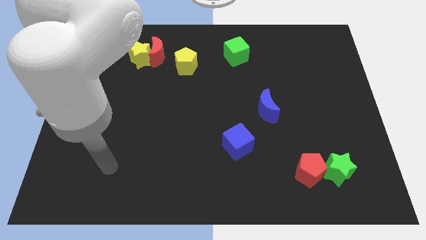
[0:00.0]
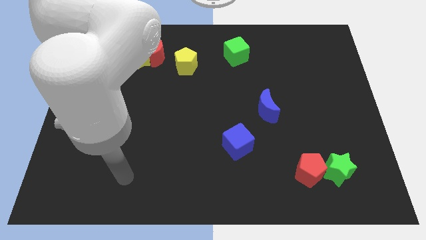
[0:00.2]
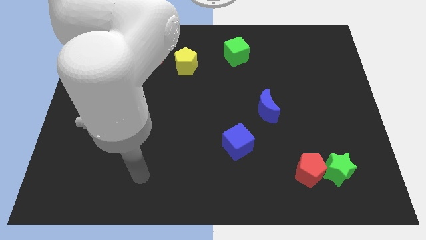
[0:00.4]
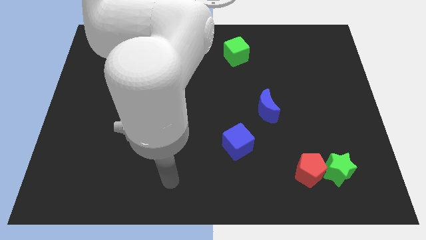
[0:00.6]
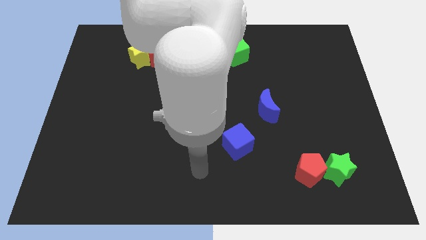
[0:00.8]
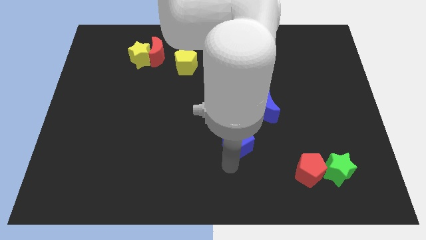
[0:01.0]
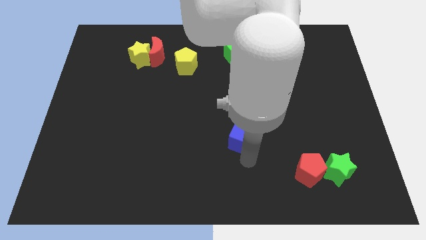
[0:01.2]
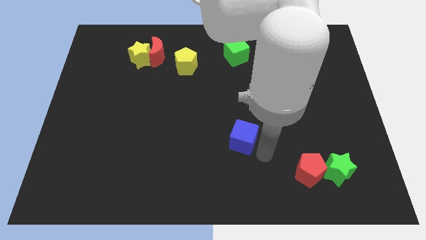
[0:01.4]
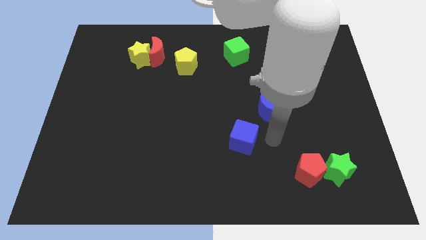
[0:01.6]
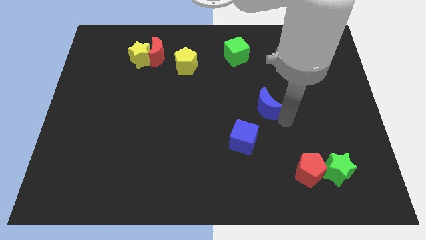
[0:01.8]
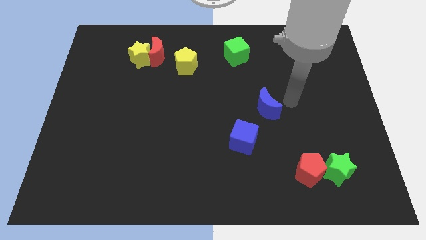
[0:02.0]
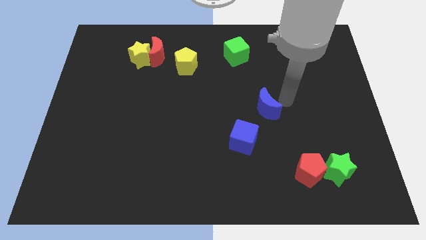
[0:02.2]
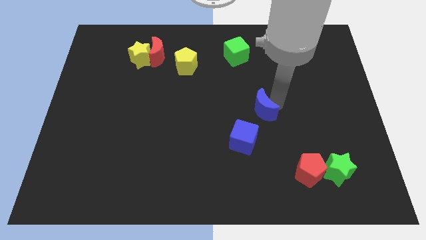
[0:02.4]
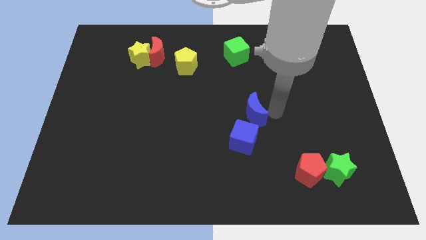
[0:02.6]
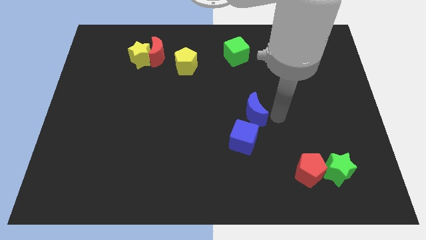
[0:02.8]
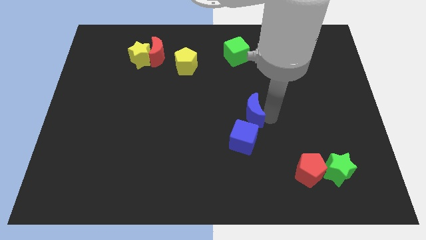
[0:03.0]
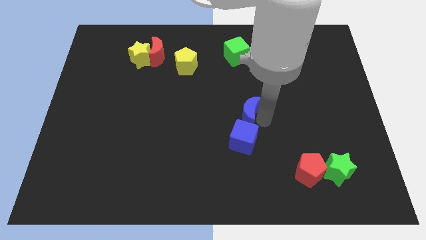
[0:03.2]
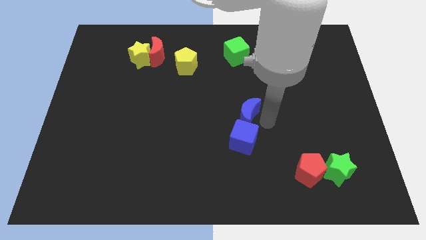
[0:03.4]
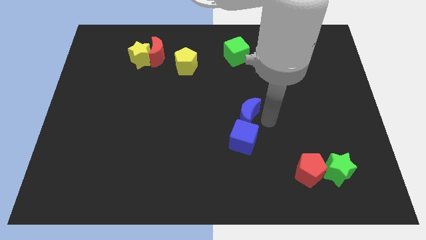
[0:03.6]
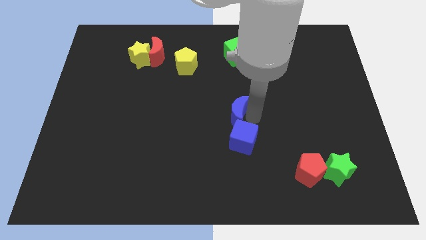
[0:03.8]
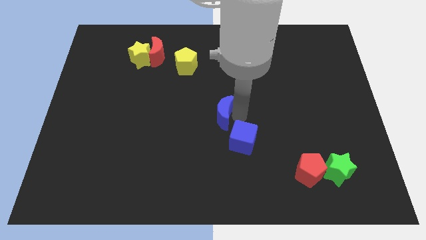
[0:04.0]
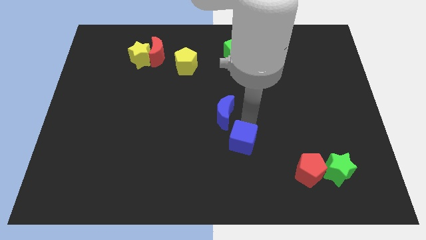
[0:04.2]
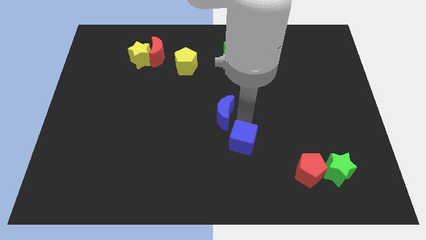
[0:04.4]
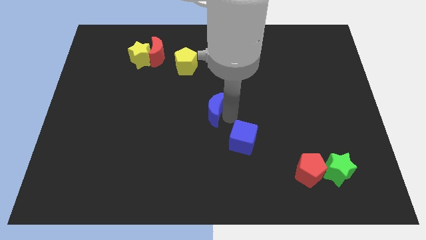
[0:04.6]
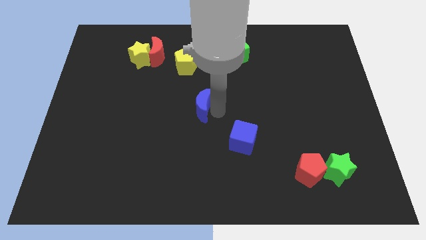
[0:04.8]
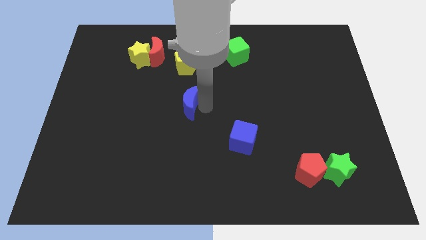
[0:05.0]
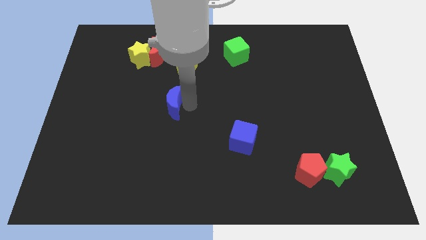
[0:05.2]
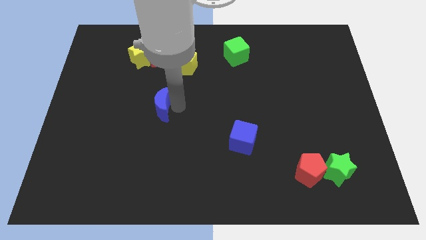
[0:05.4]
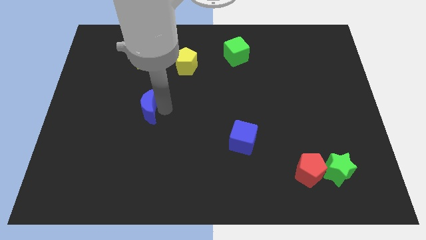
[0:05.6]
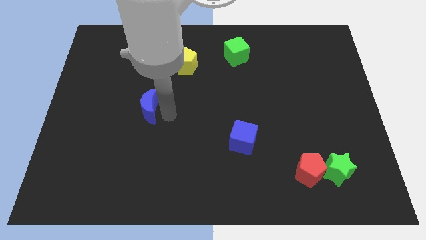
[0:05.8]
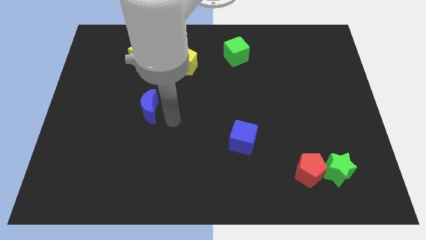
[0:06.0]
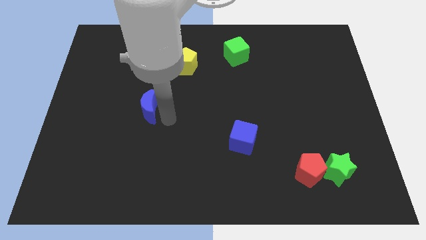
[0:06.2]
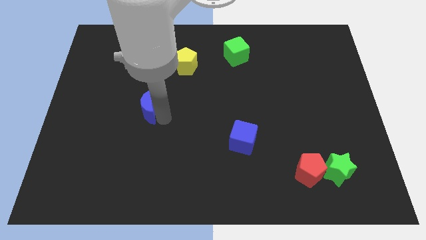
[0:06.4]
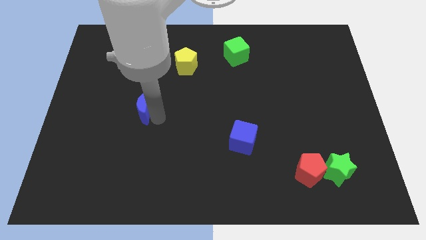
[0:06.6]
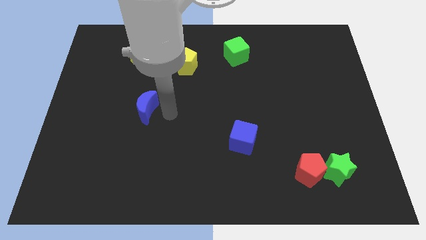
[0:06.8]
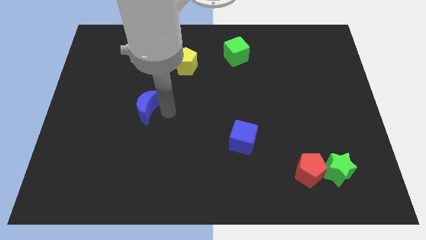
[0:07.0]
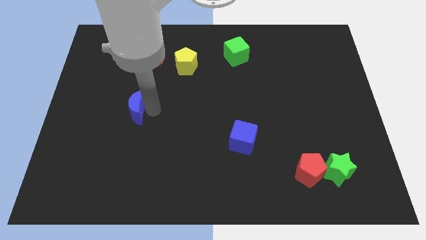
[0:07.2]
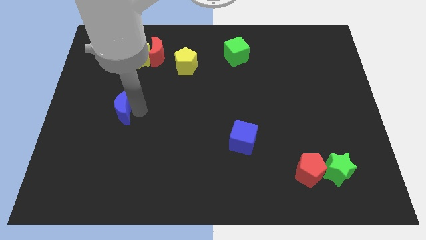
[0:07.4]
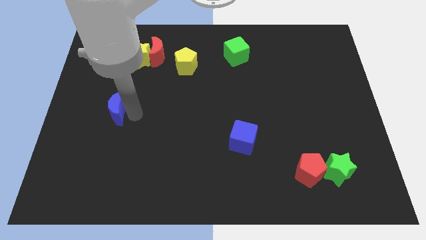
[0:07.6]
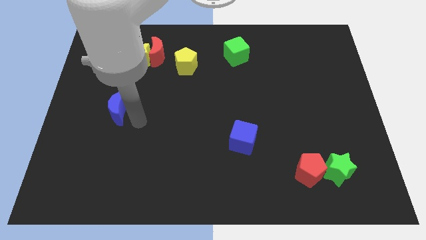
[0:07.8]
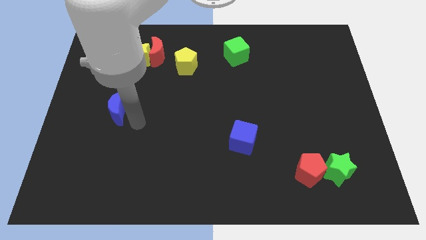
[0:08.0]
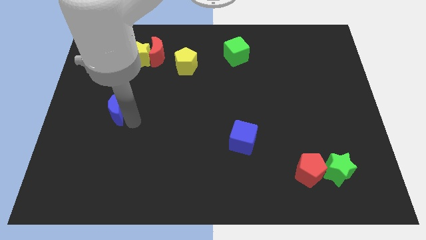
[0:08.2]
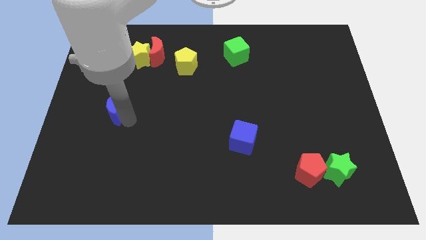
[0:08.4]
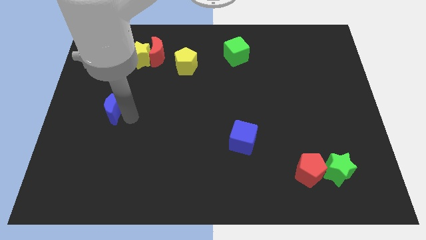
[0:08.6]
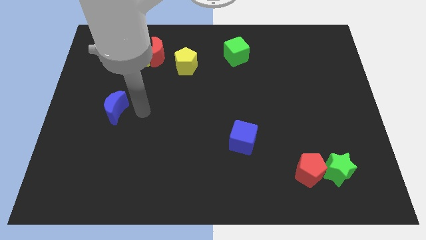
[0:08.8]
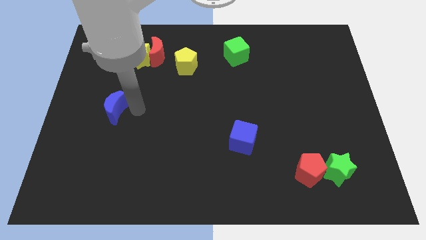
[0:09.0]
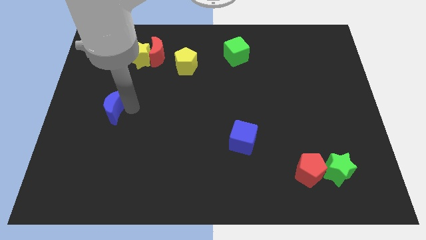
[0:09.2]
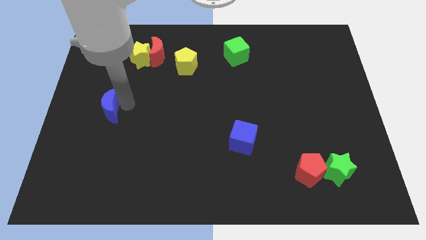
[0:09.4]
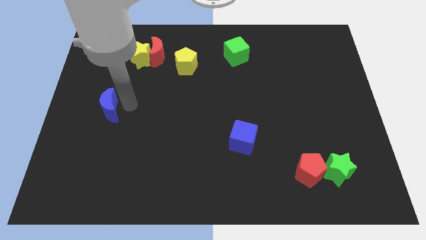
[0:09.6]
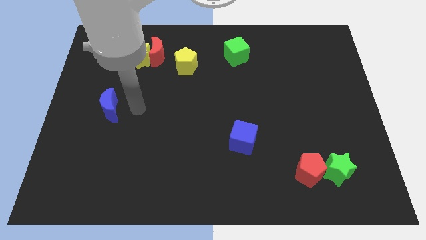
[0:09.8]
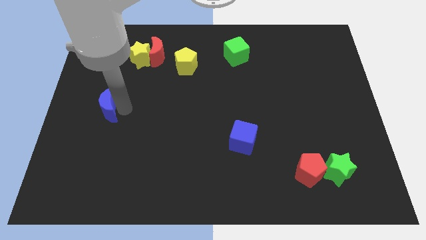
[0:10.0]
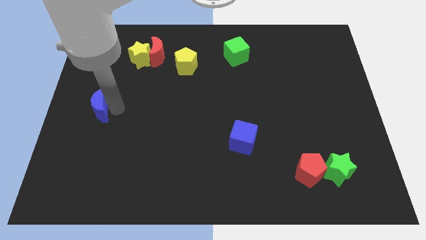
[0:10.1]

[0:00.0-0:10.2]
put the blue moon to the center left

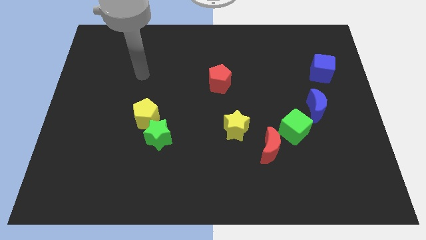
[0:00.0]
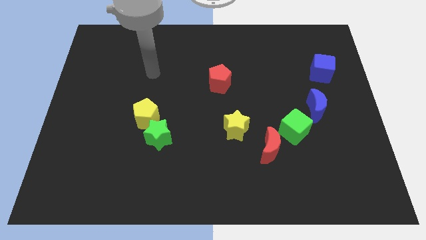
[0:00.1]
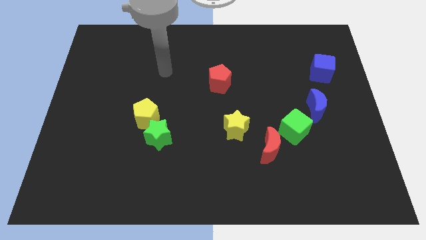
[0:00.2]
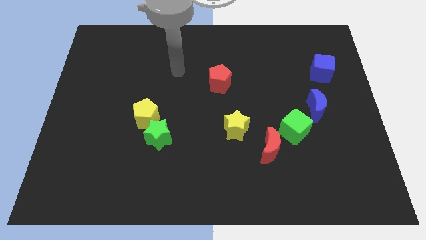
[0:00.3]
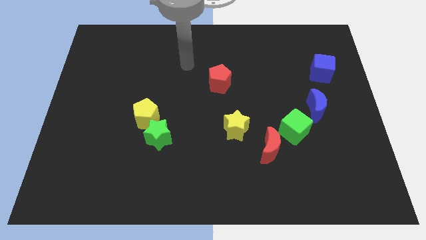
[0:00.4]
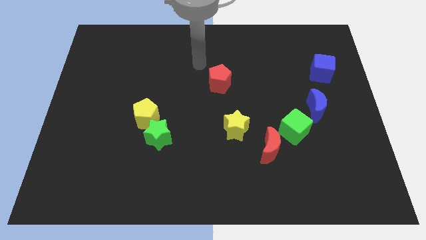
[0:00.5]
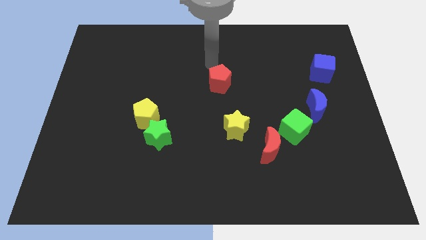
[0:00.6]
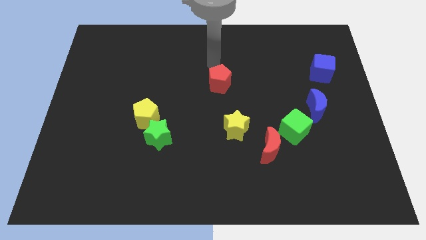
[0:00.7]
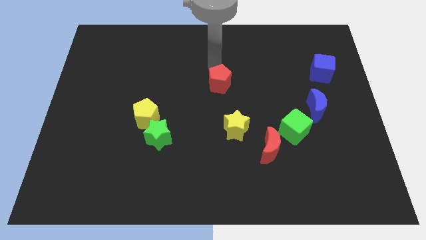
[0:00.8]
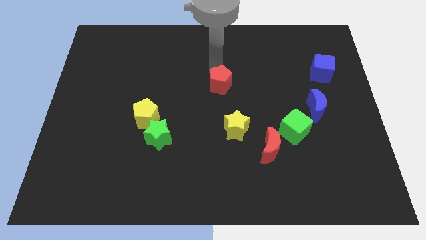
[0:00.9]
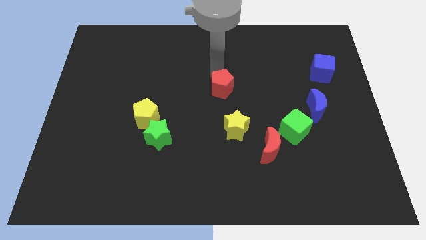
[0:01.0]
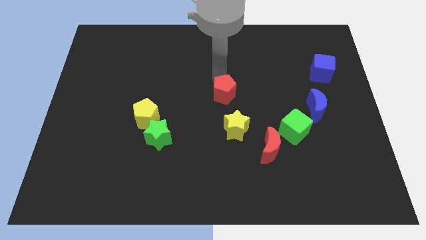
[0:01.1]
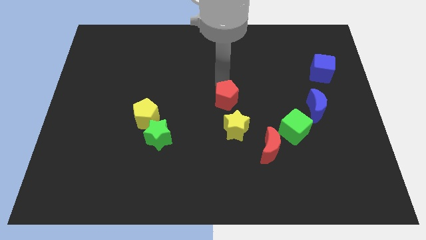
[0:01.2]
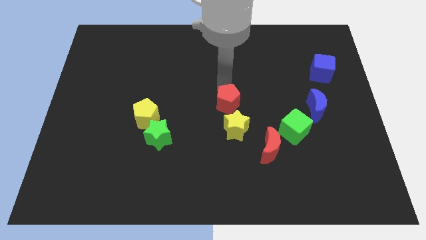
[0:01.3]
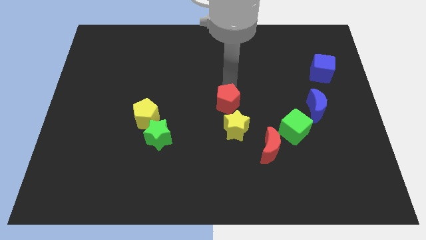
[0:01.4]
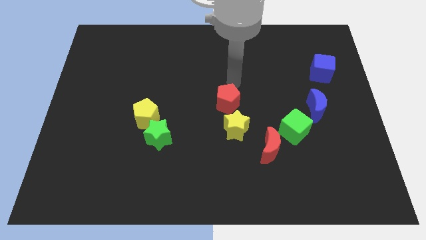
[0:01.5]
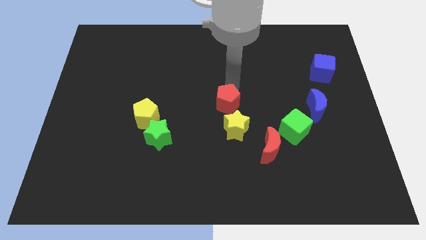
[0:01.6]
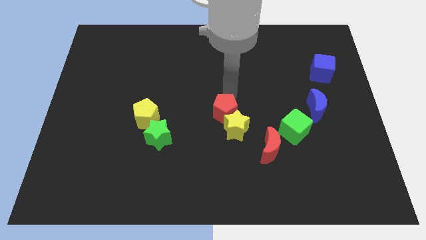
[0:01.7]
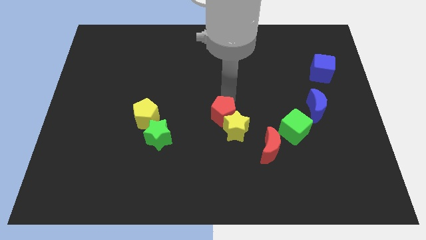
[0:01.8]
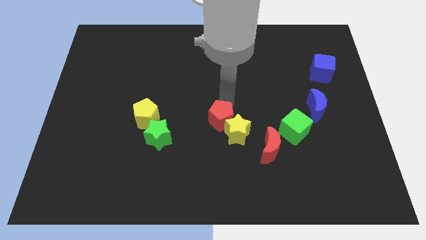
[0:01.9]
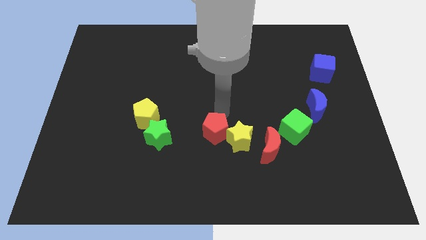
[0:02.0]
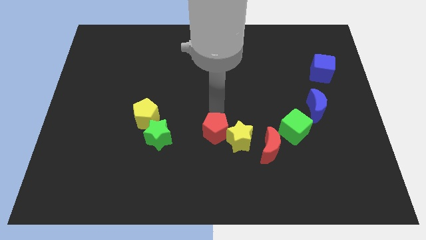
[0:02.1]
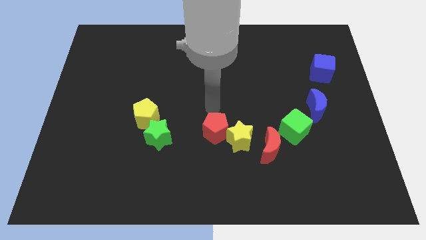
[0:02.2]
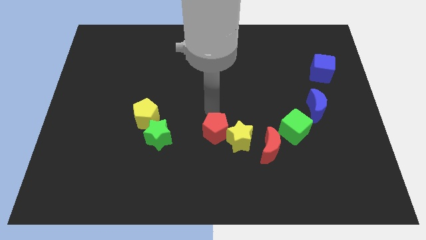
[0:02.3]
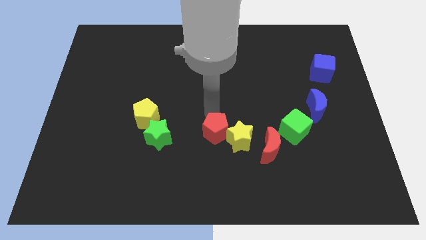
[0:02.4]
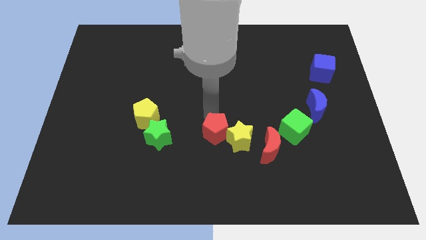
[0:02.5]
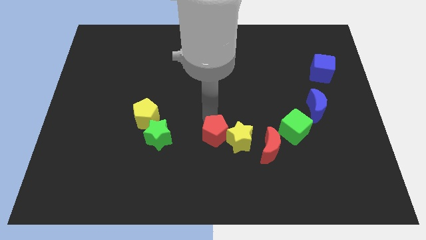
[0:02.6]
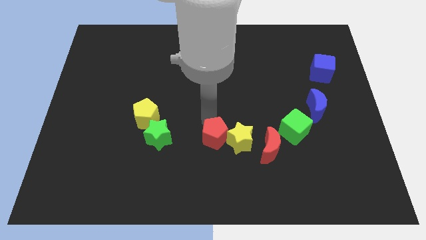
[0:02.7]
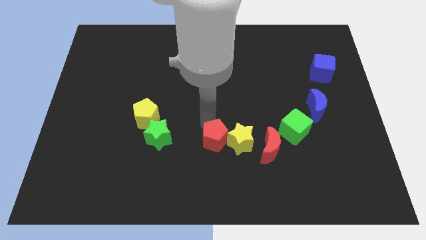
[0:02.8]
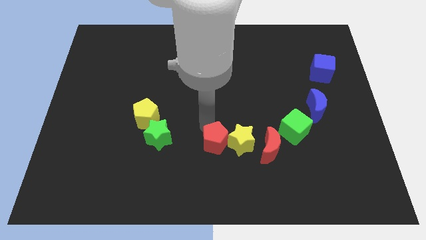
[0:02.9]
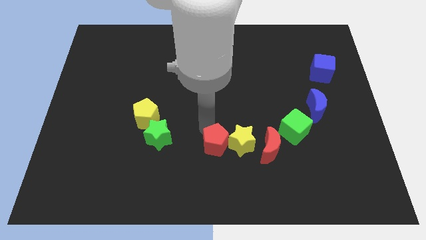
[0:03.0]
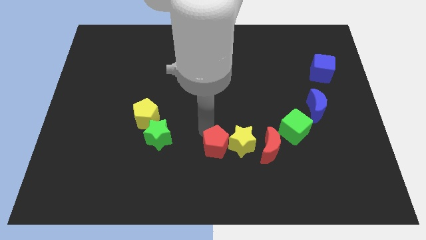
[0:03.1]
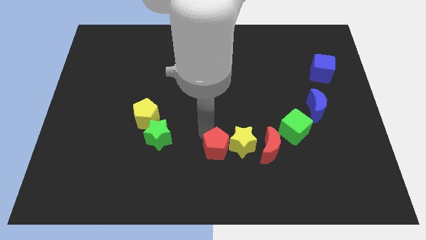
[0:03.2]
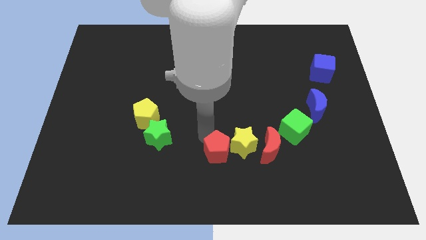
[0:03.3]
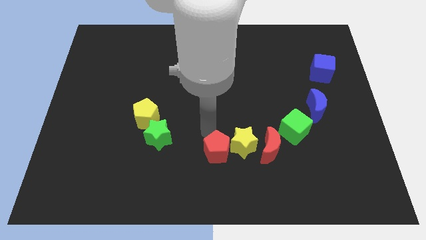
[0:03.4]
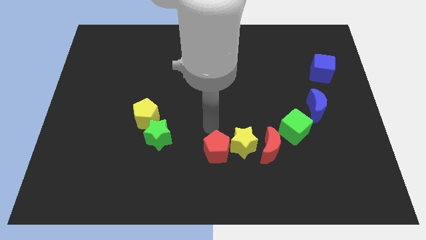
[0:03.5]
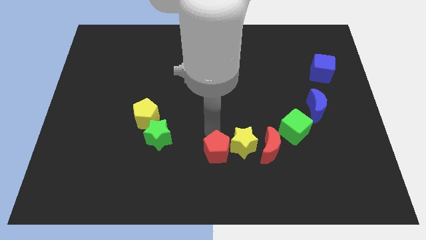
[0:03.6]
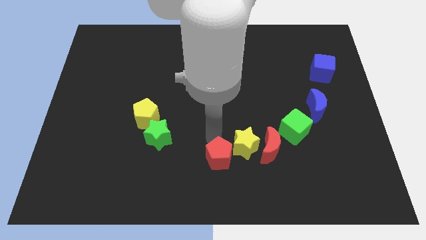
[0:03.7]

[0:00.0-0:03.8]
push the red pentagon to the bottom side
